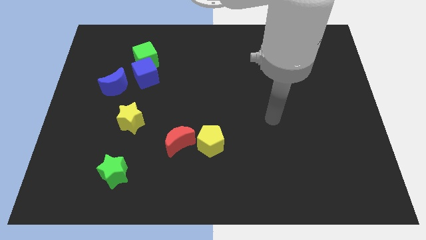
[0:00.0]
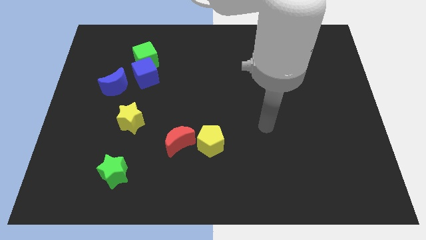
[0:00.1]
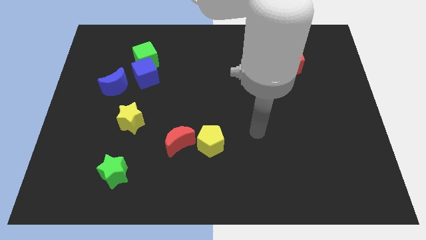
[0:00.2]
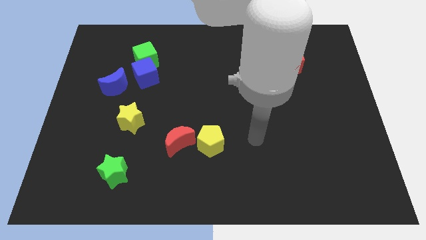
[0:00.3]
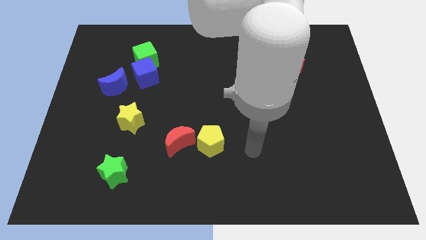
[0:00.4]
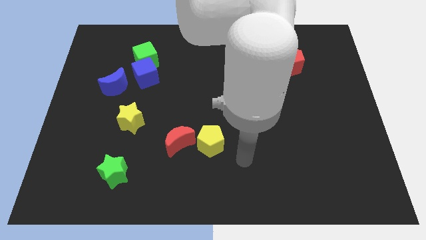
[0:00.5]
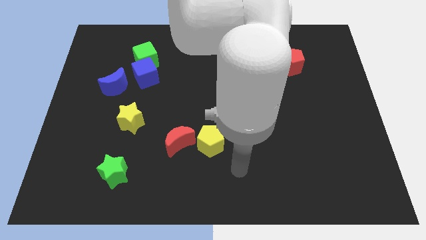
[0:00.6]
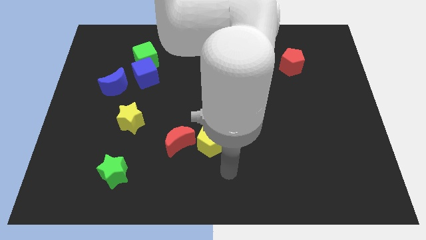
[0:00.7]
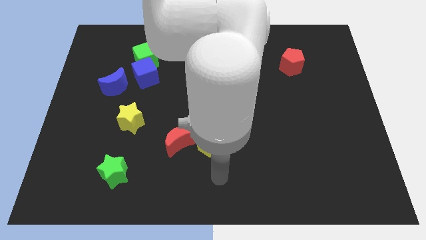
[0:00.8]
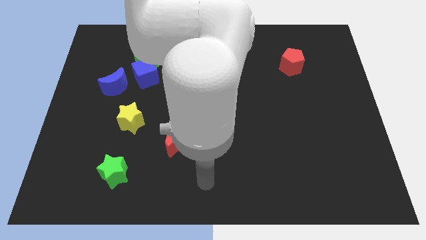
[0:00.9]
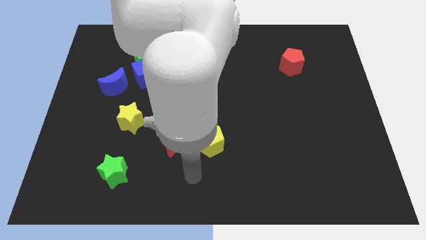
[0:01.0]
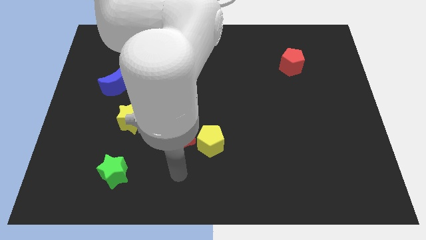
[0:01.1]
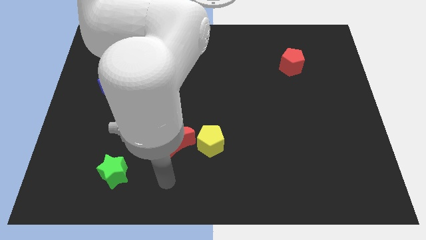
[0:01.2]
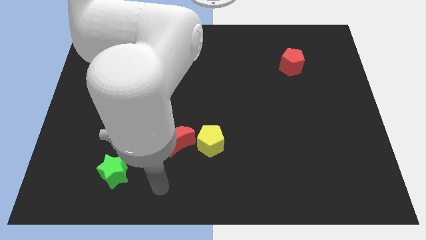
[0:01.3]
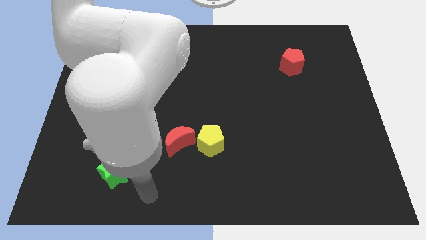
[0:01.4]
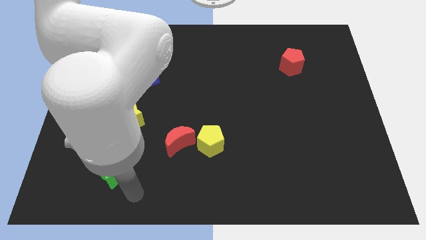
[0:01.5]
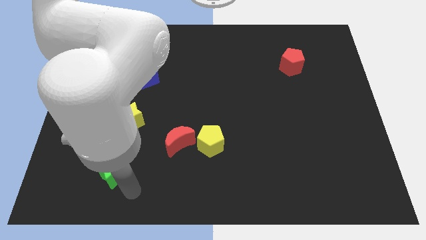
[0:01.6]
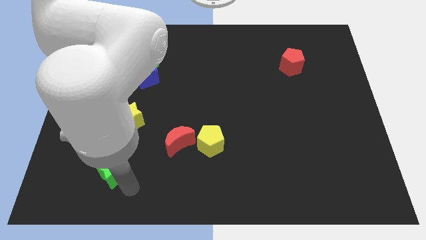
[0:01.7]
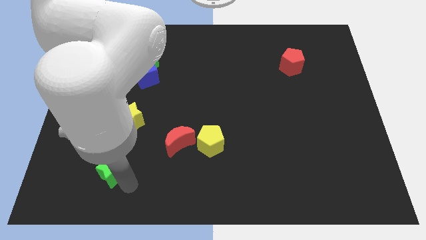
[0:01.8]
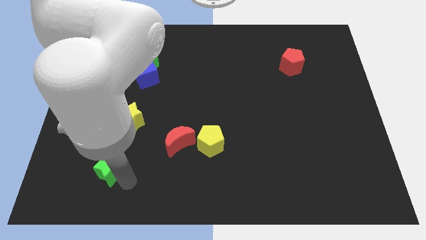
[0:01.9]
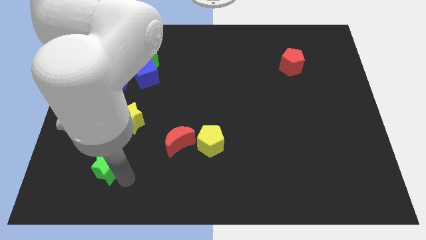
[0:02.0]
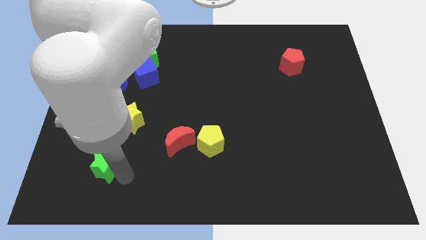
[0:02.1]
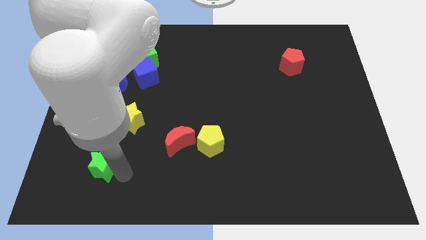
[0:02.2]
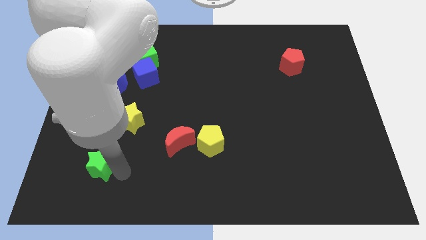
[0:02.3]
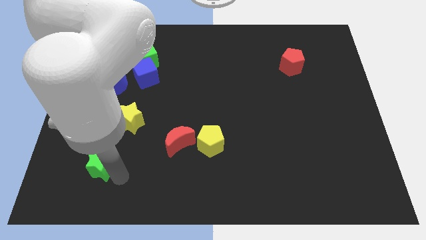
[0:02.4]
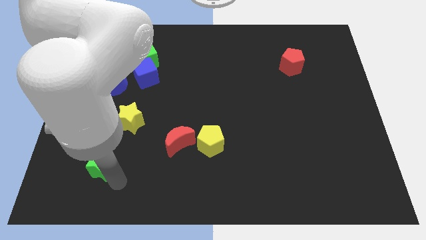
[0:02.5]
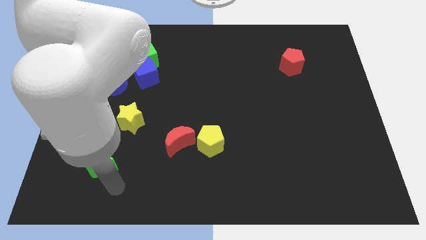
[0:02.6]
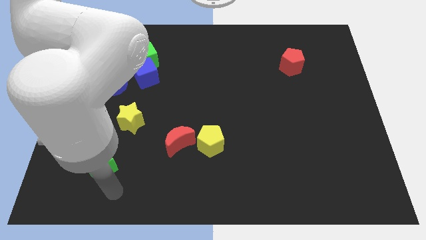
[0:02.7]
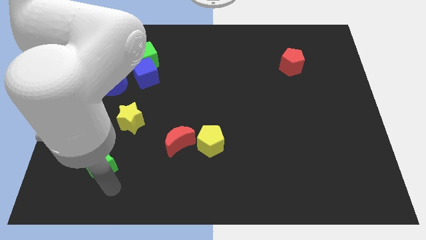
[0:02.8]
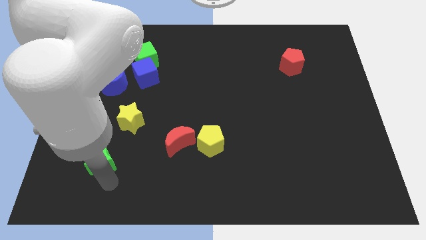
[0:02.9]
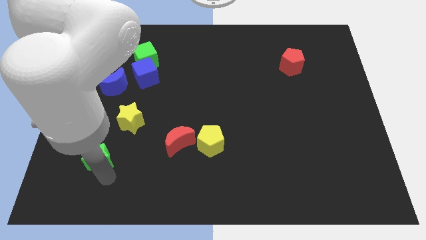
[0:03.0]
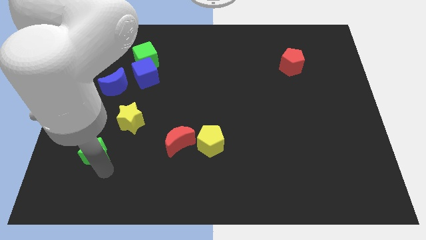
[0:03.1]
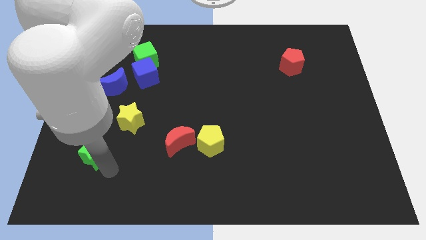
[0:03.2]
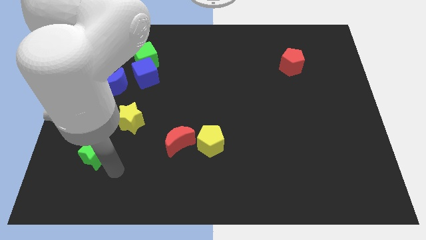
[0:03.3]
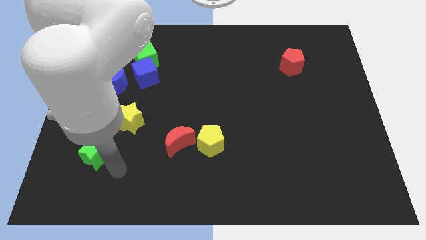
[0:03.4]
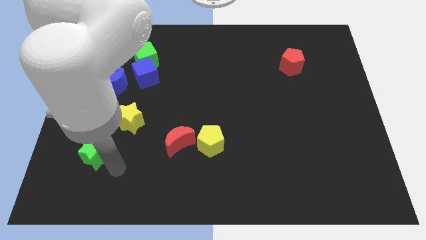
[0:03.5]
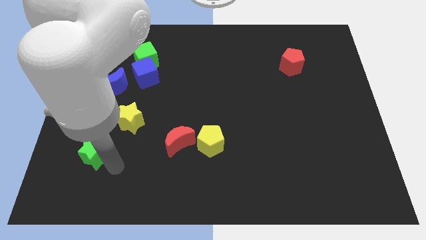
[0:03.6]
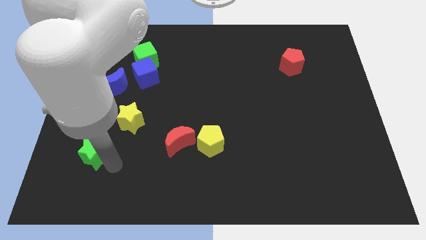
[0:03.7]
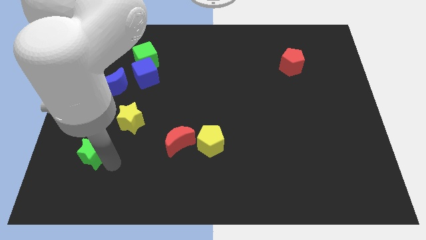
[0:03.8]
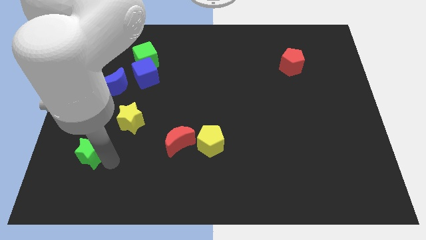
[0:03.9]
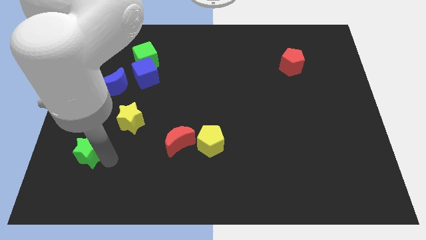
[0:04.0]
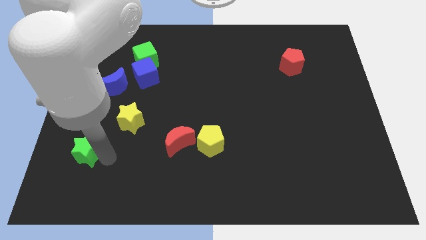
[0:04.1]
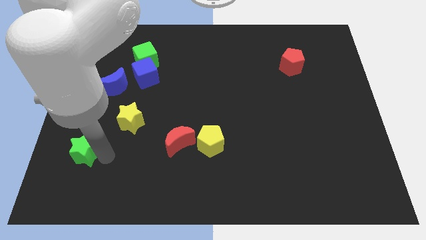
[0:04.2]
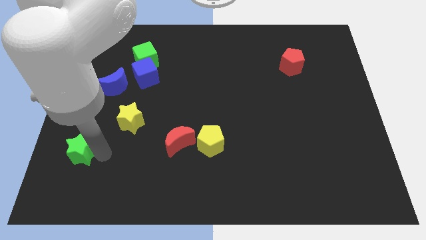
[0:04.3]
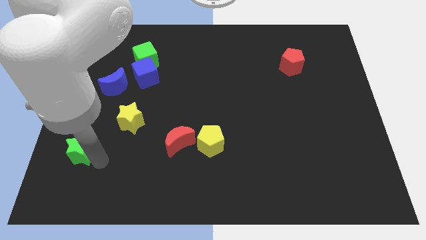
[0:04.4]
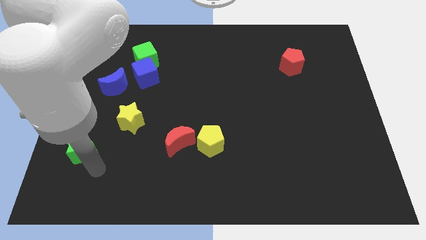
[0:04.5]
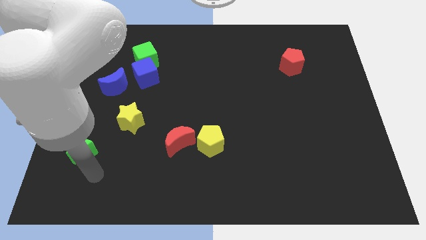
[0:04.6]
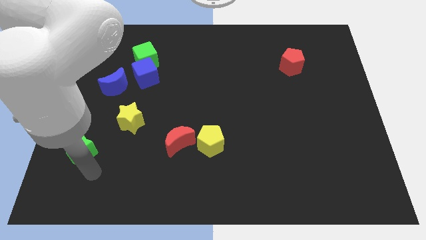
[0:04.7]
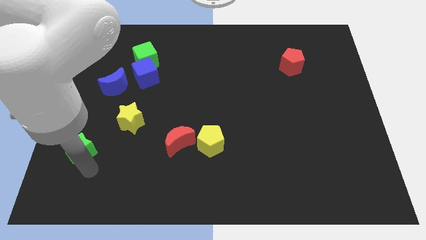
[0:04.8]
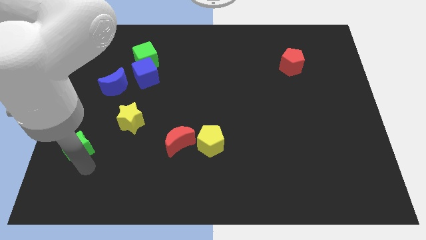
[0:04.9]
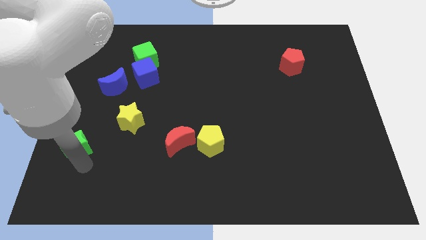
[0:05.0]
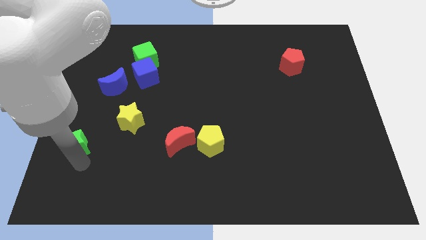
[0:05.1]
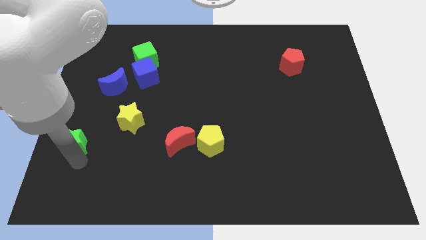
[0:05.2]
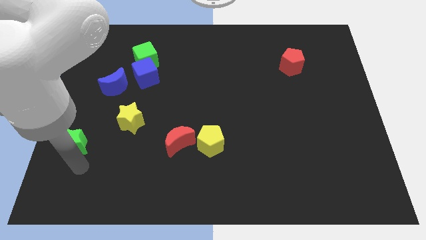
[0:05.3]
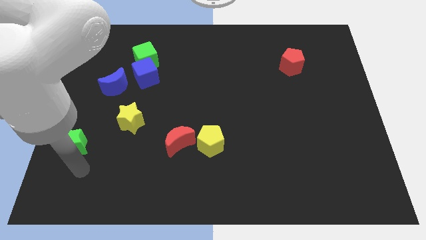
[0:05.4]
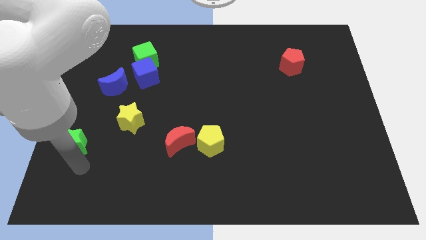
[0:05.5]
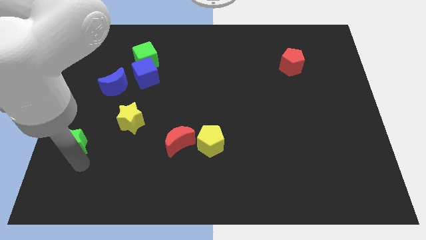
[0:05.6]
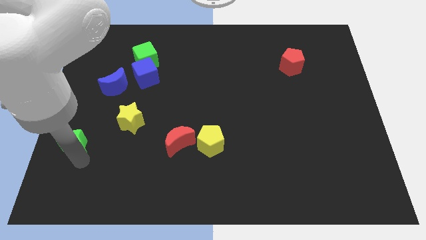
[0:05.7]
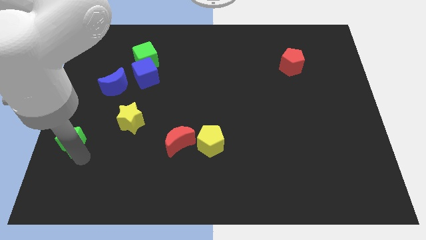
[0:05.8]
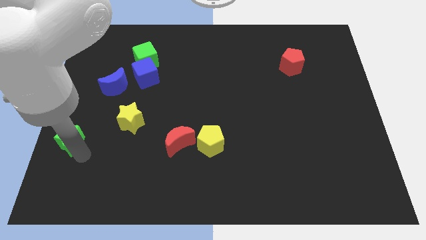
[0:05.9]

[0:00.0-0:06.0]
push the green star to the center left
